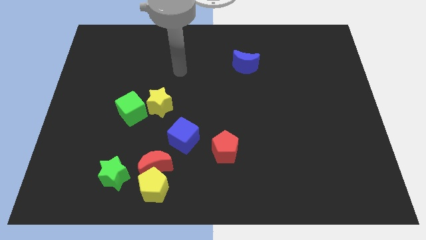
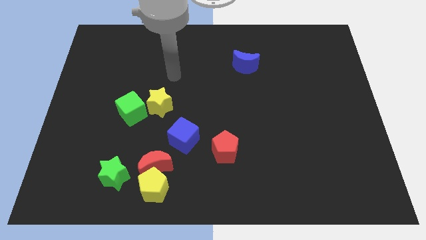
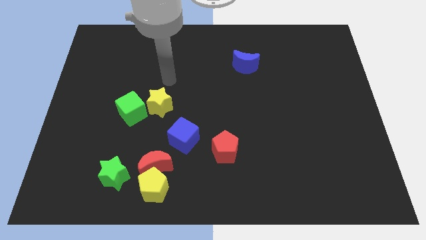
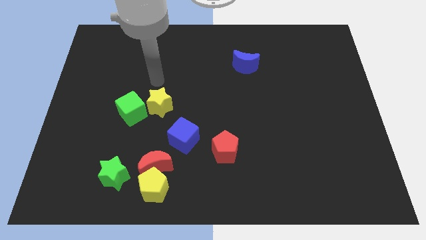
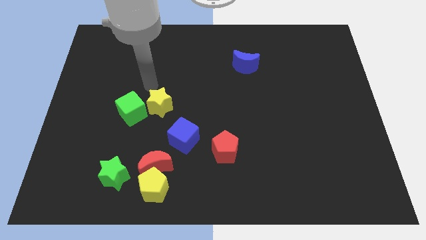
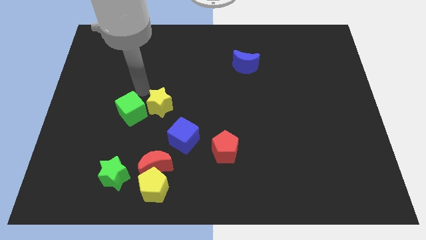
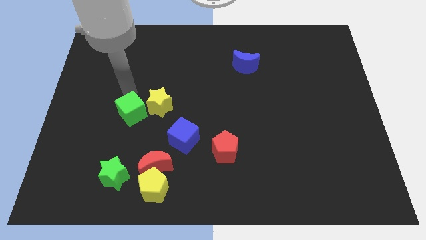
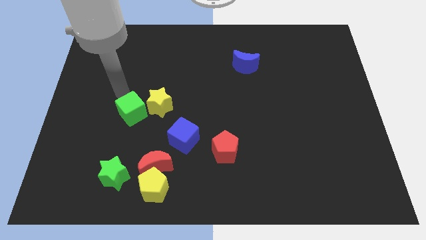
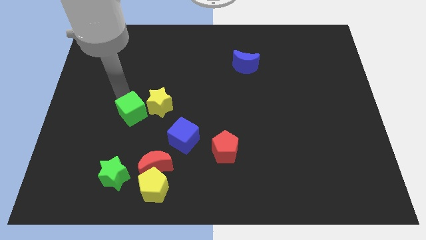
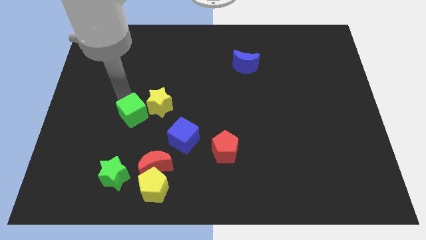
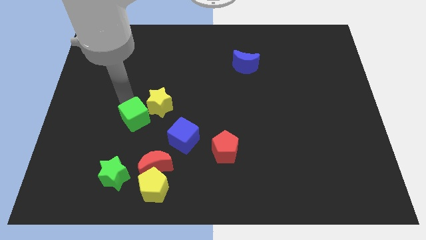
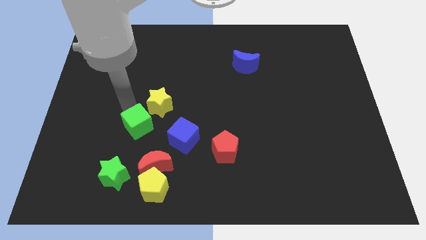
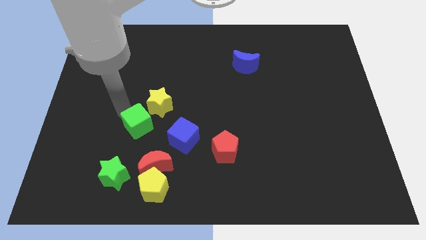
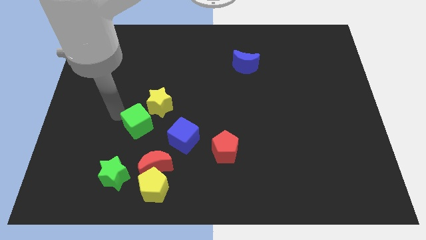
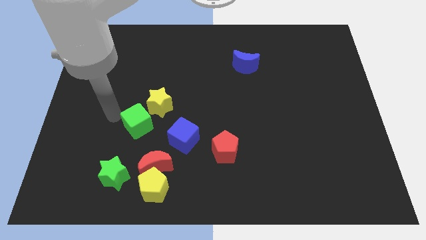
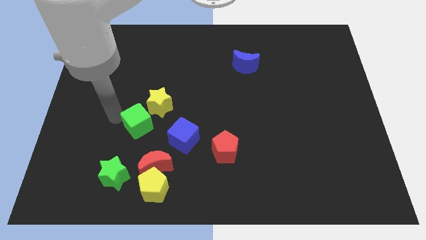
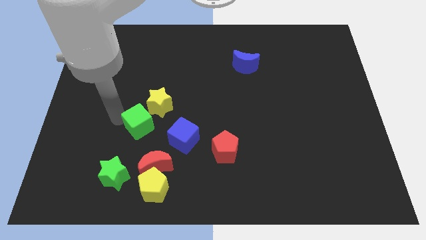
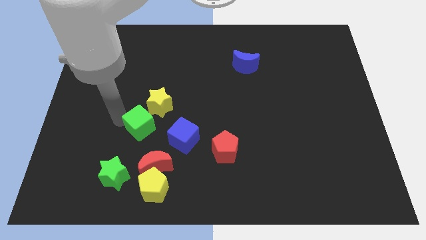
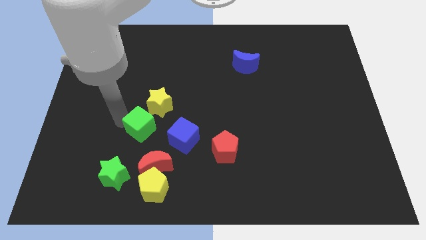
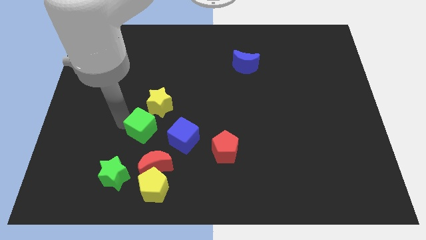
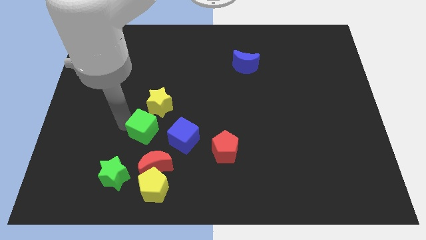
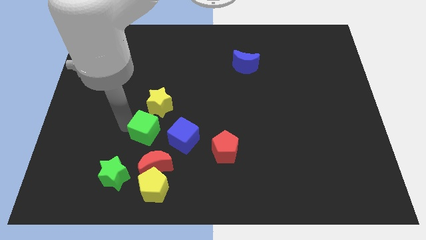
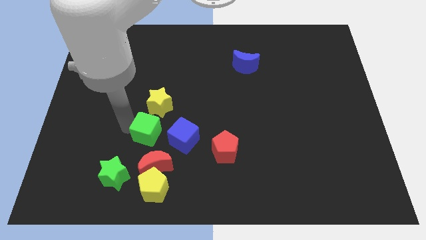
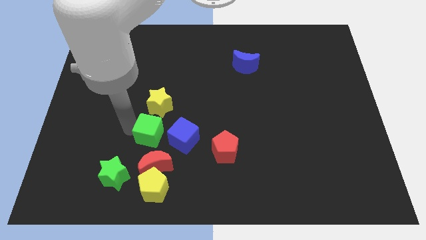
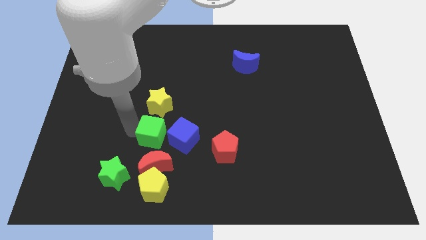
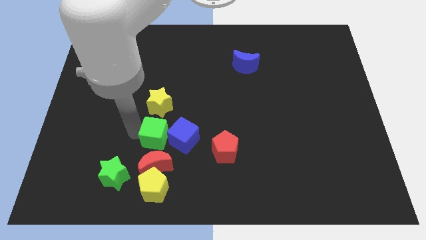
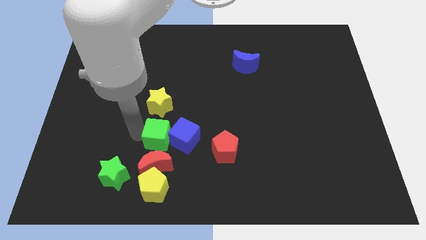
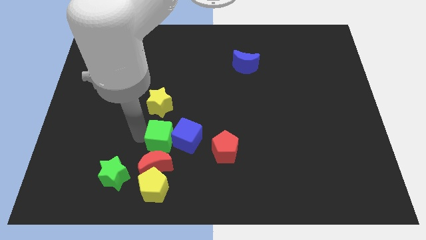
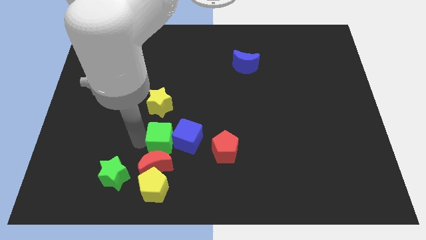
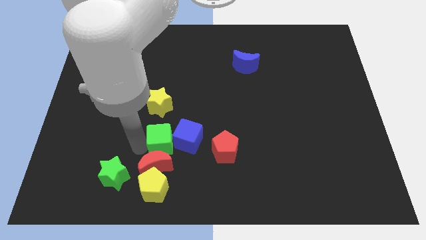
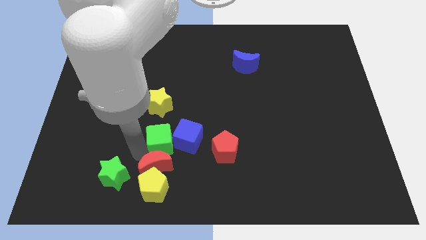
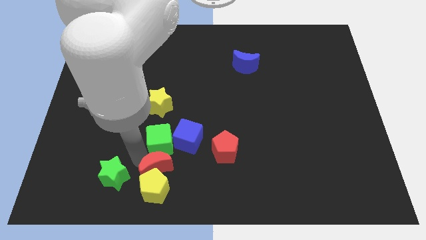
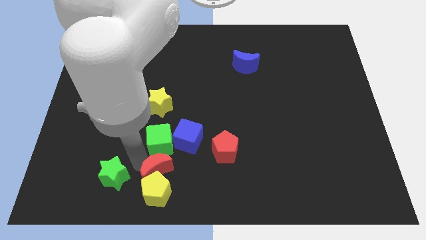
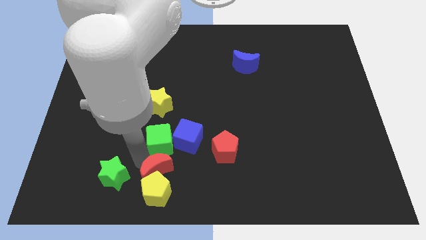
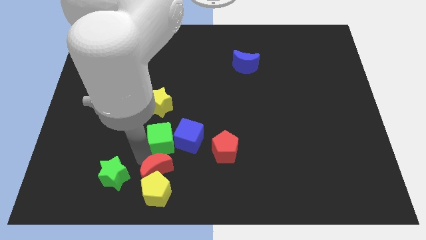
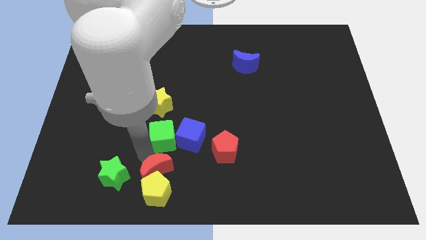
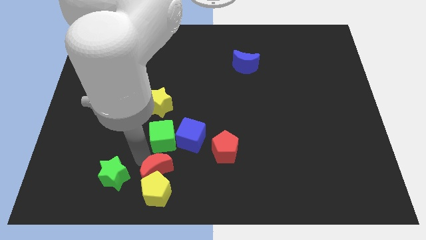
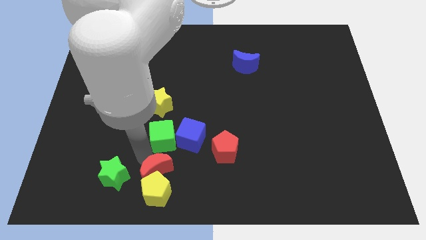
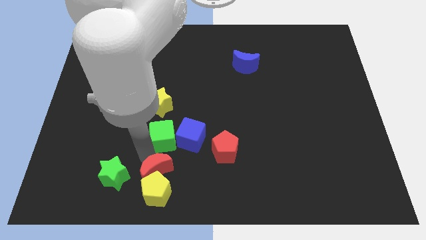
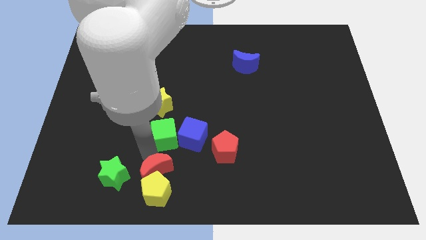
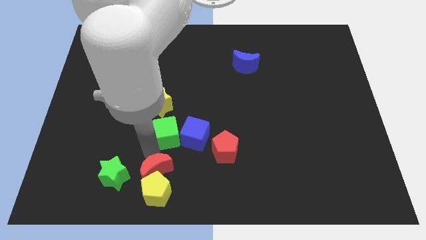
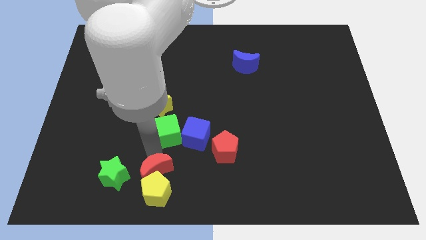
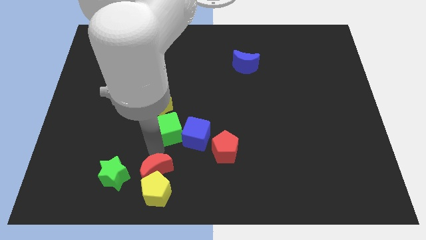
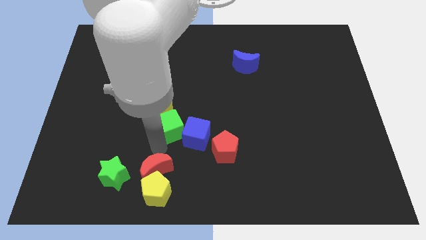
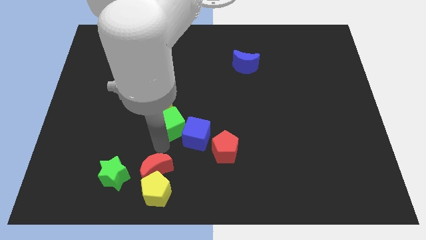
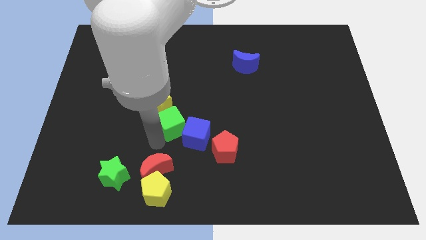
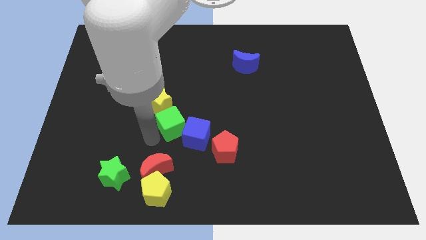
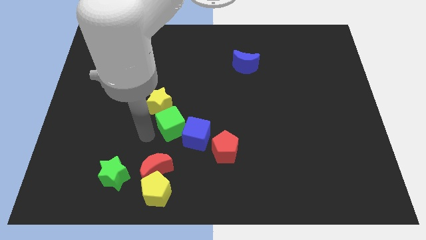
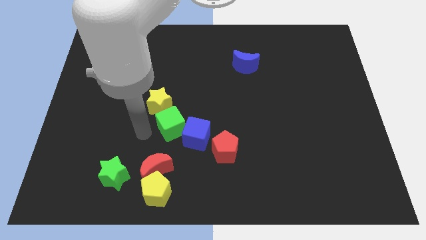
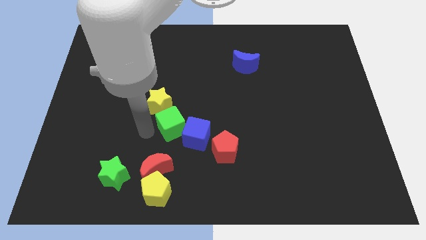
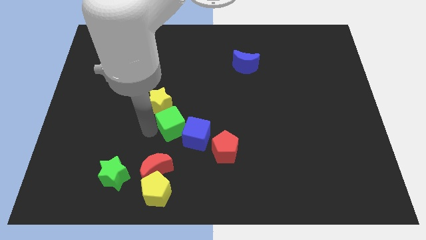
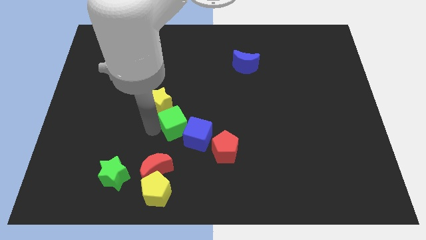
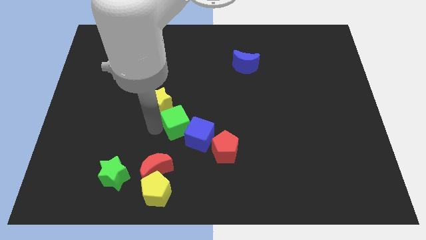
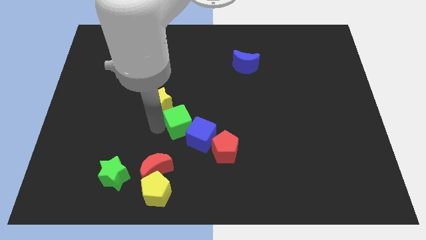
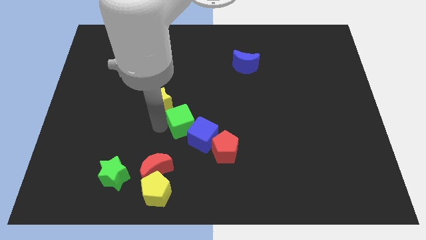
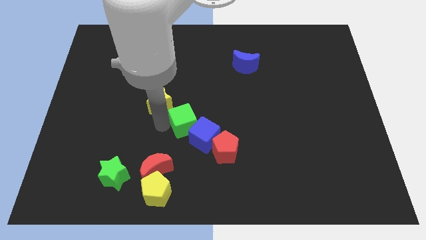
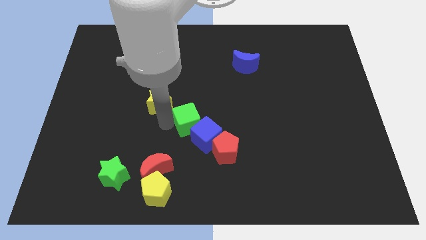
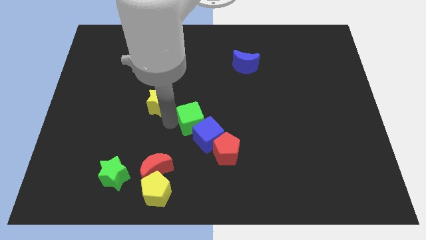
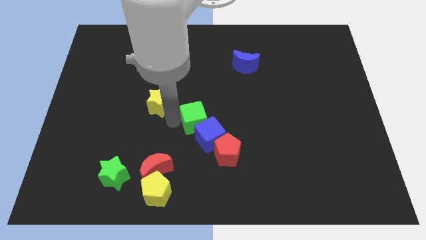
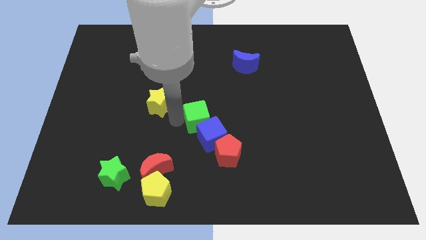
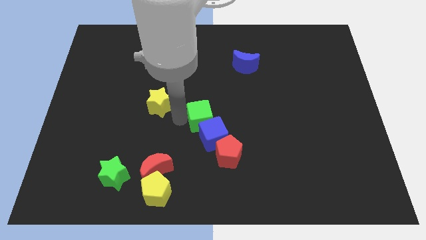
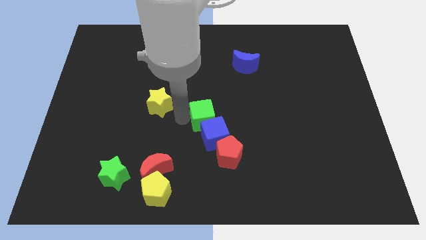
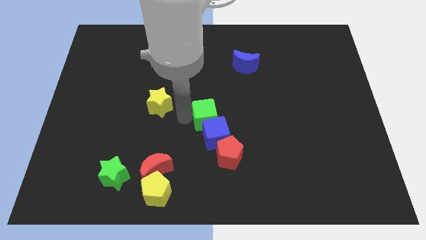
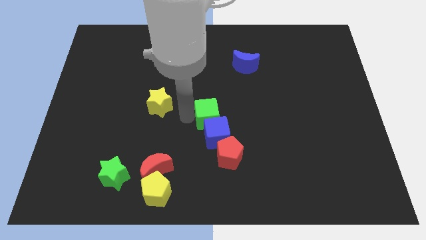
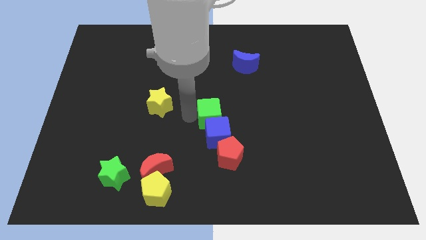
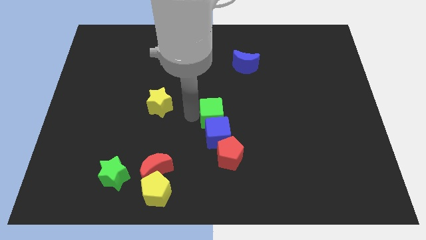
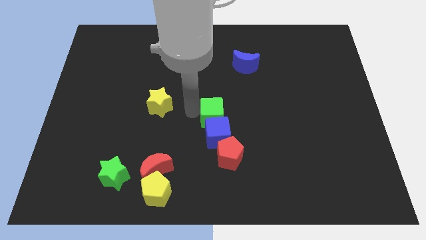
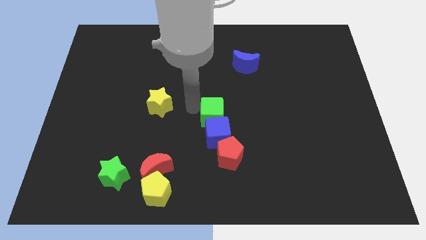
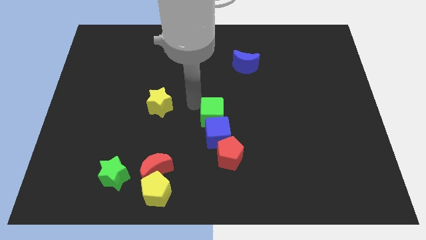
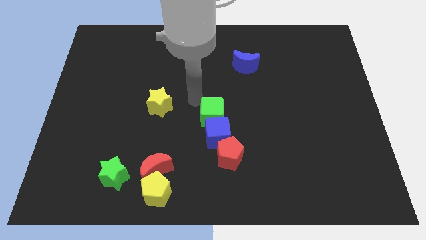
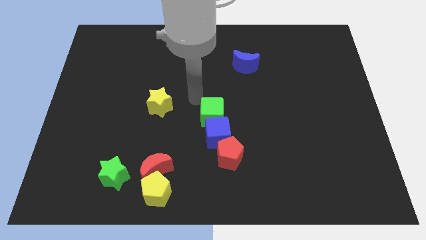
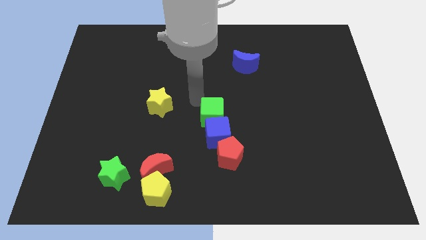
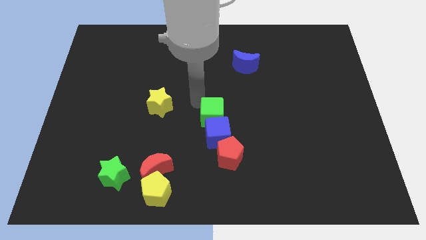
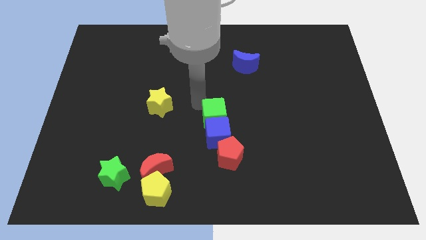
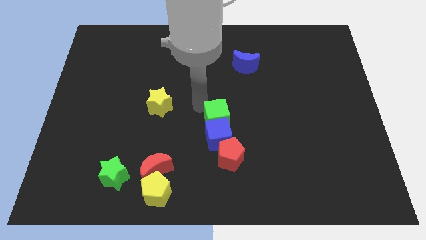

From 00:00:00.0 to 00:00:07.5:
push the green cube to the right

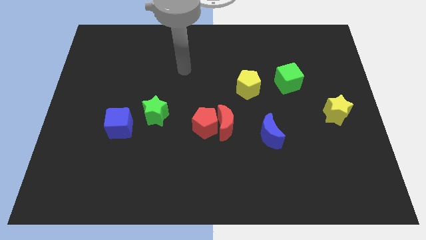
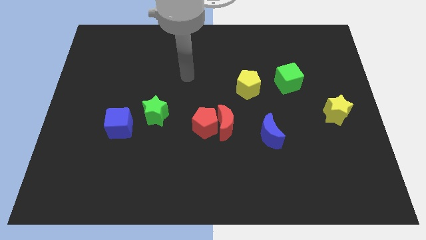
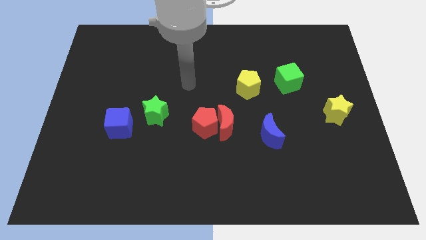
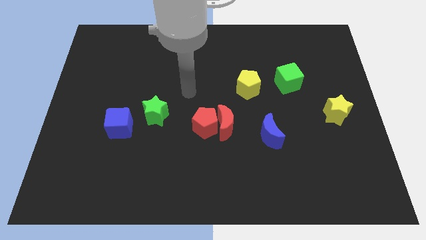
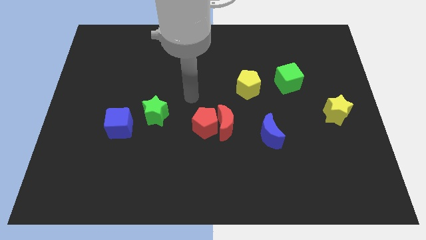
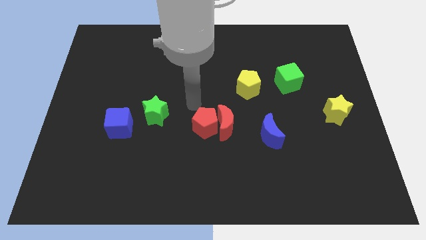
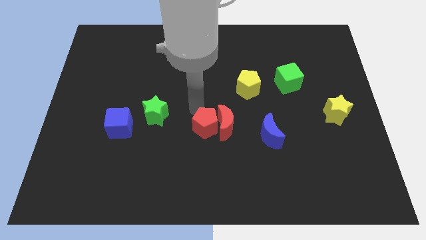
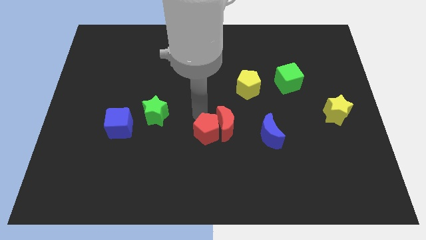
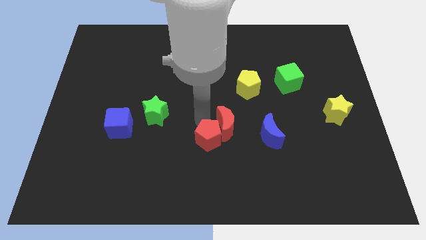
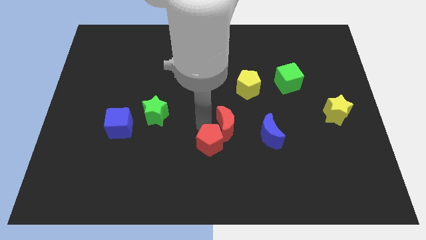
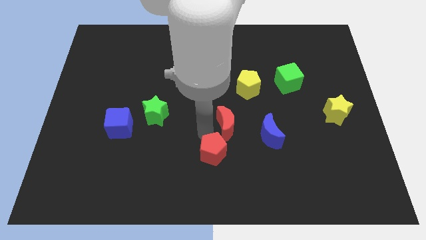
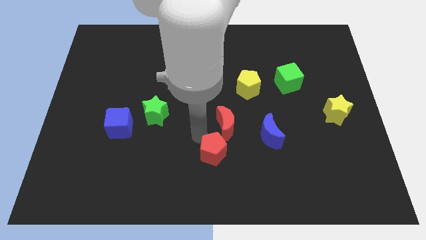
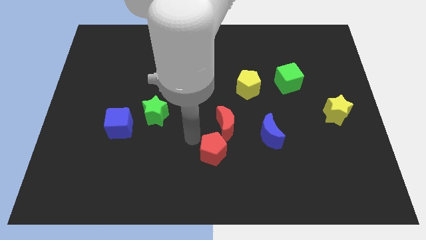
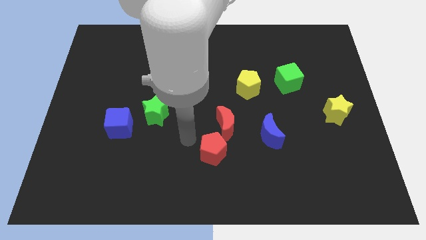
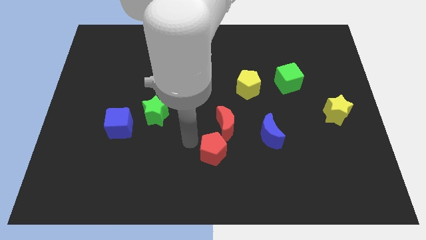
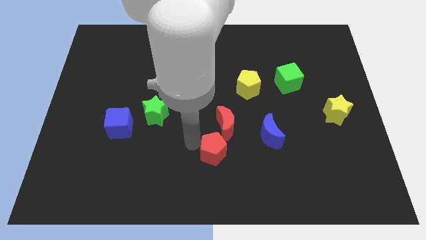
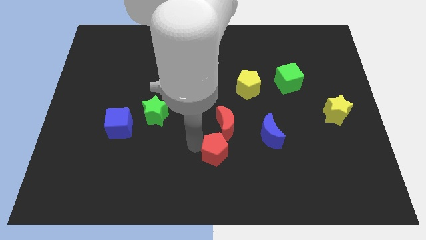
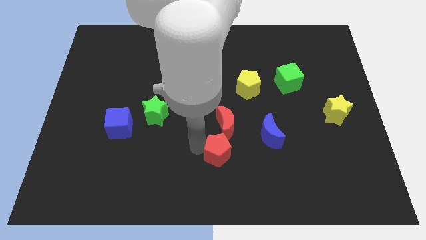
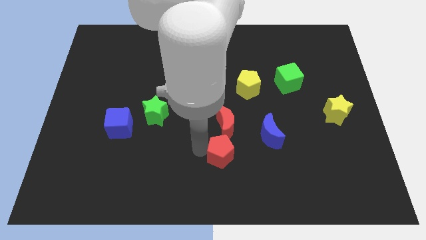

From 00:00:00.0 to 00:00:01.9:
push the red pentagon slightly down and right diagonally
